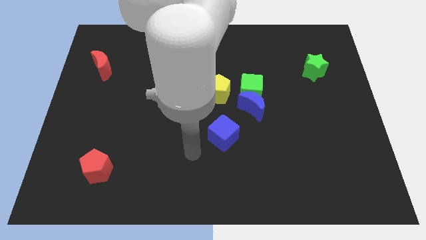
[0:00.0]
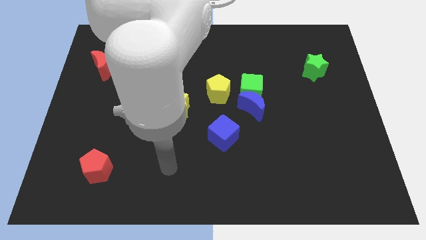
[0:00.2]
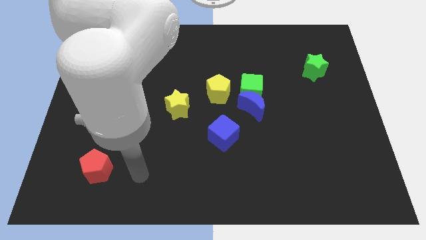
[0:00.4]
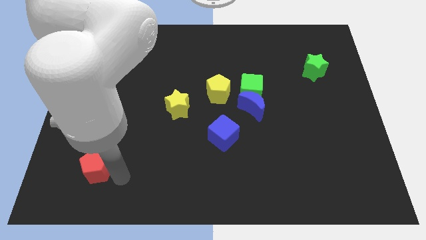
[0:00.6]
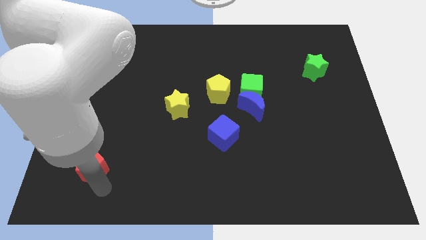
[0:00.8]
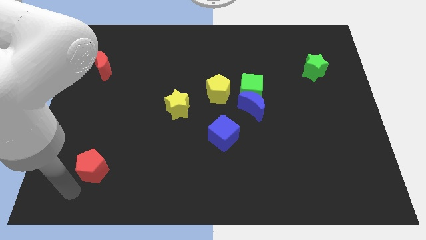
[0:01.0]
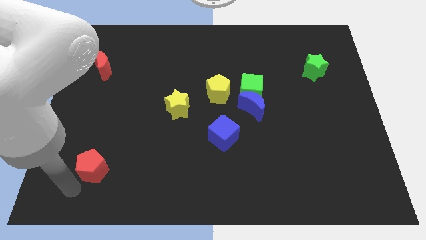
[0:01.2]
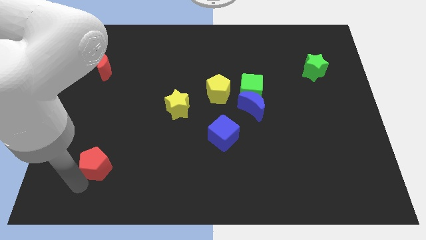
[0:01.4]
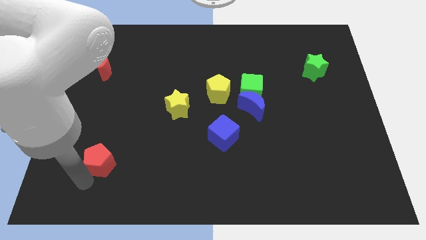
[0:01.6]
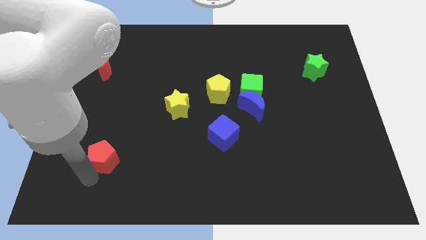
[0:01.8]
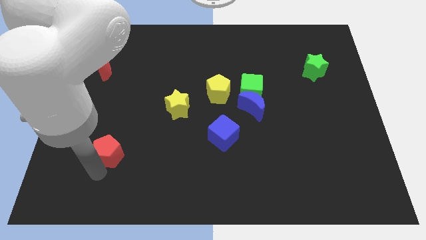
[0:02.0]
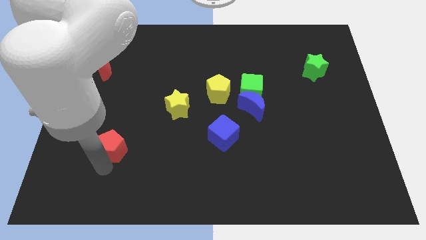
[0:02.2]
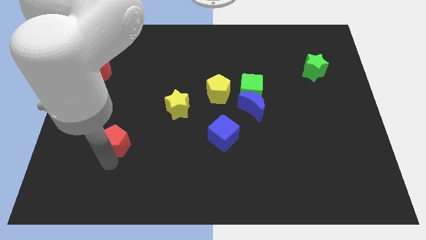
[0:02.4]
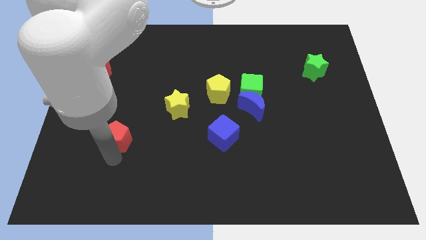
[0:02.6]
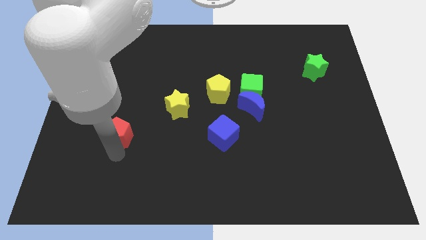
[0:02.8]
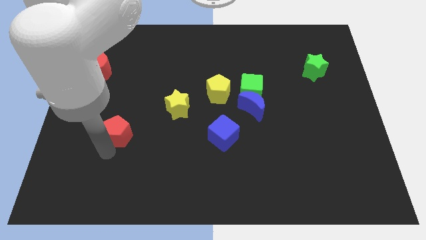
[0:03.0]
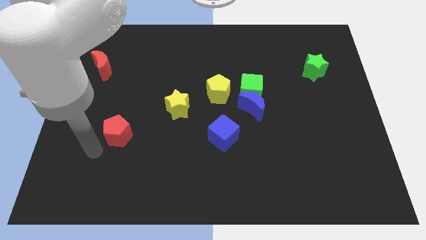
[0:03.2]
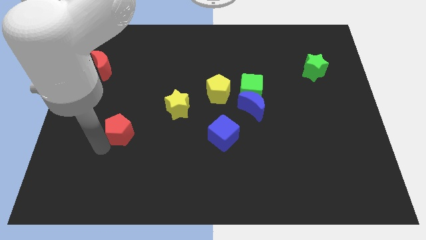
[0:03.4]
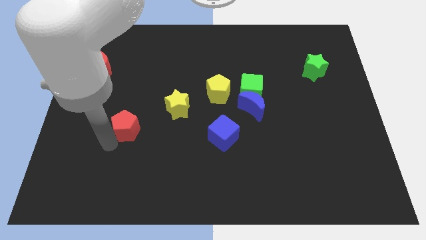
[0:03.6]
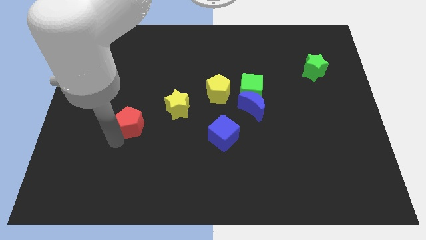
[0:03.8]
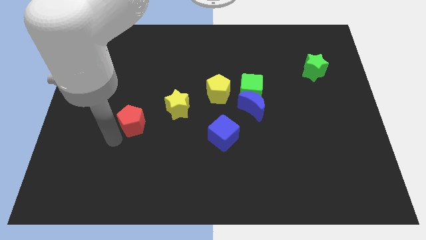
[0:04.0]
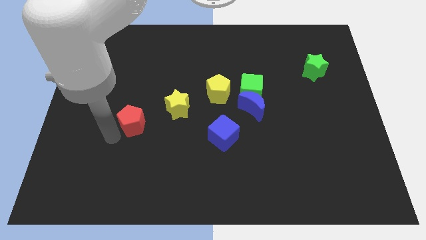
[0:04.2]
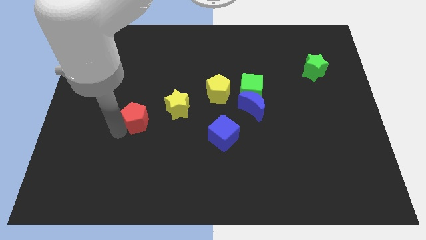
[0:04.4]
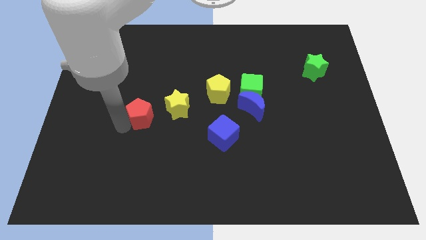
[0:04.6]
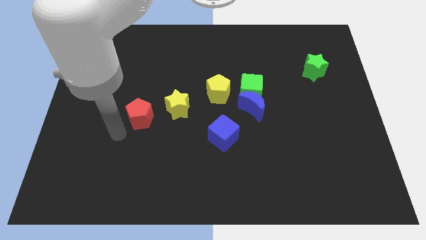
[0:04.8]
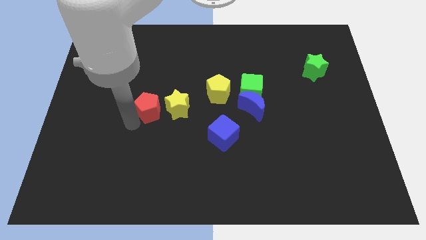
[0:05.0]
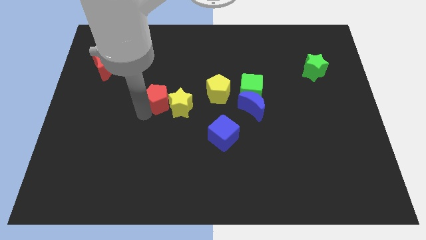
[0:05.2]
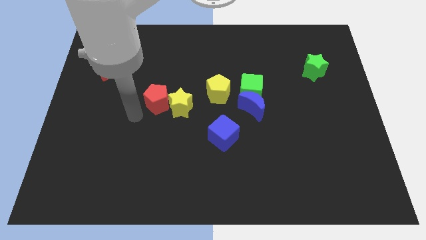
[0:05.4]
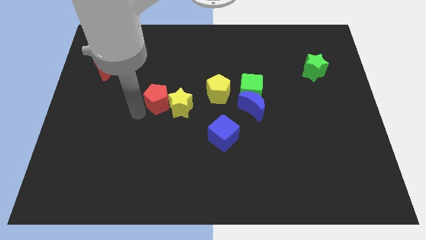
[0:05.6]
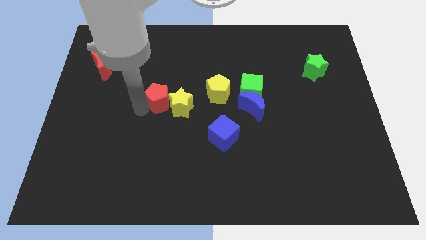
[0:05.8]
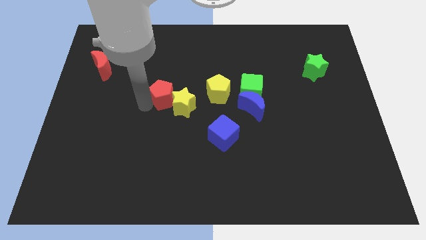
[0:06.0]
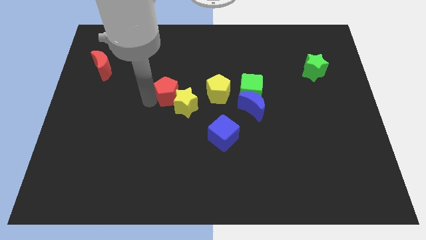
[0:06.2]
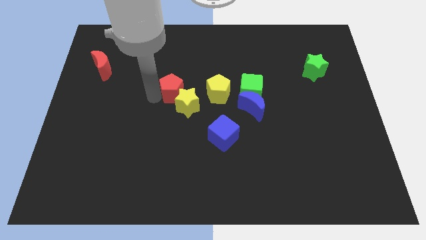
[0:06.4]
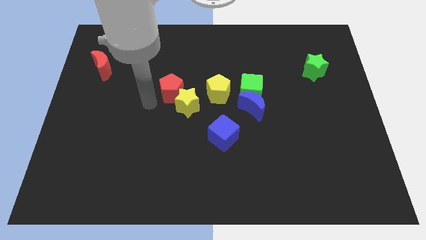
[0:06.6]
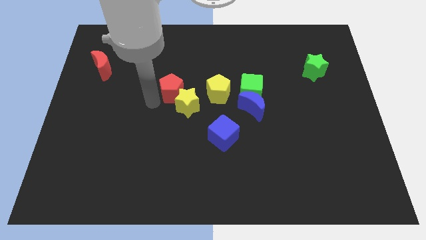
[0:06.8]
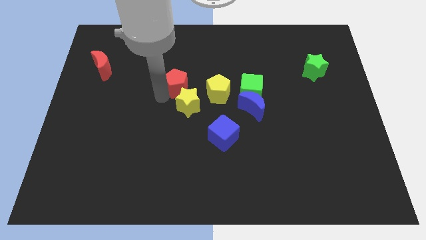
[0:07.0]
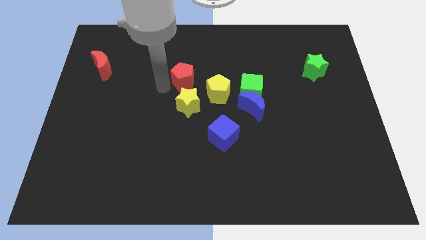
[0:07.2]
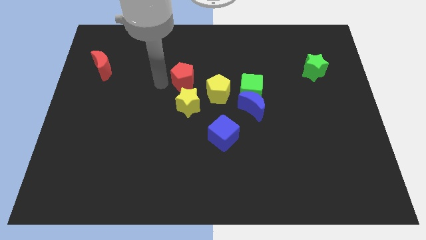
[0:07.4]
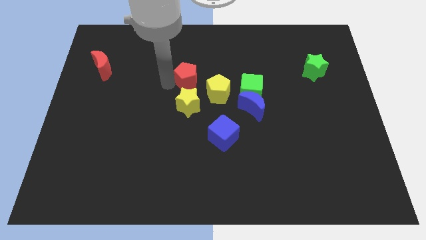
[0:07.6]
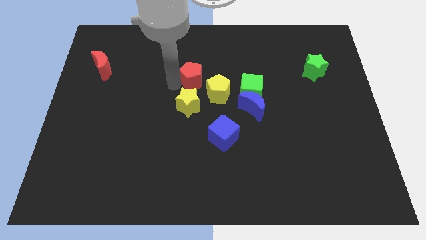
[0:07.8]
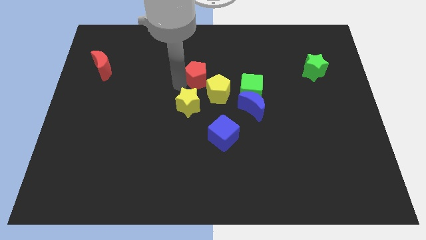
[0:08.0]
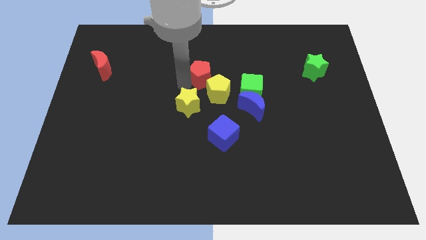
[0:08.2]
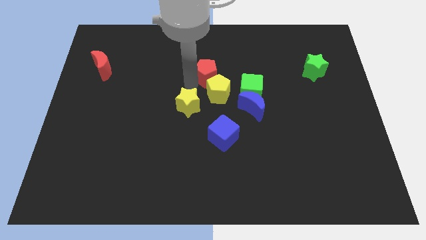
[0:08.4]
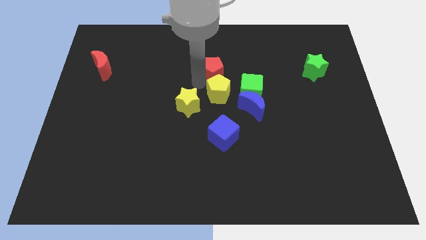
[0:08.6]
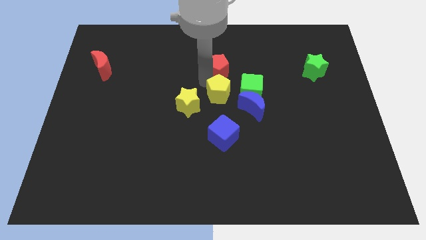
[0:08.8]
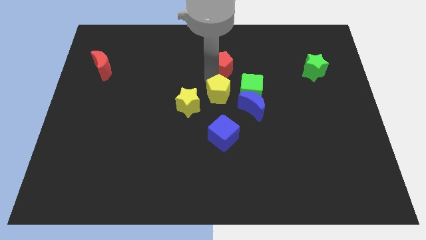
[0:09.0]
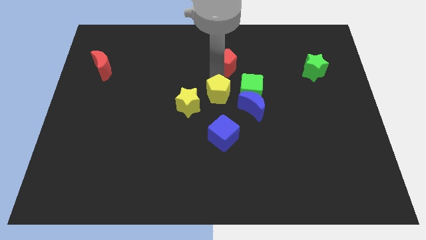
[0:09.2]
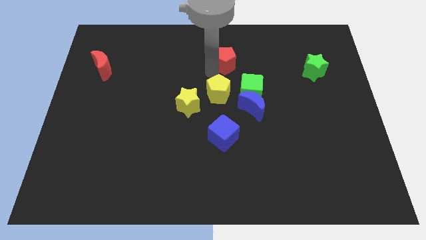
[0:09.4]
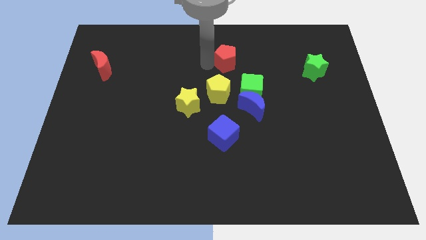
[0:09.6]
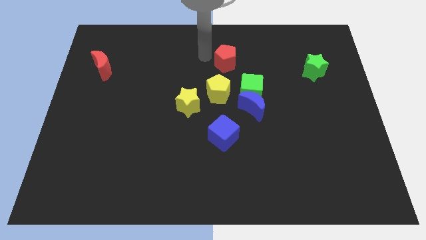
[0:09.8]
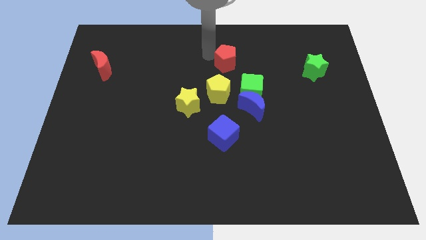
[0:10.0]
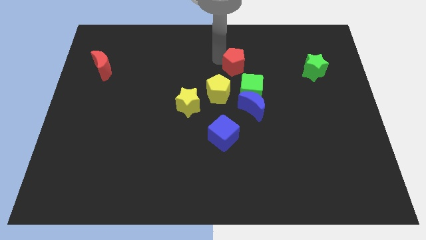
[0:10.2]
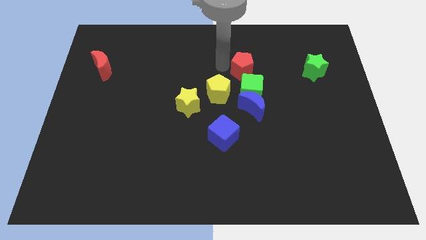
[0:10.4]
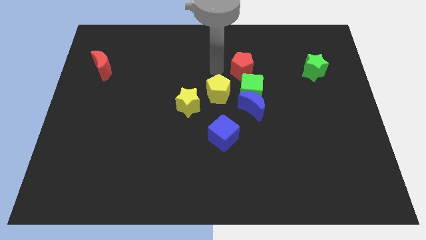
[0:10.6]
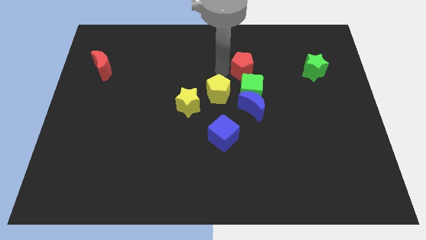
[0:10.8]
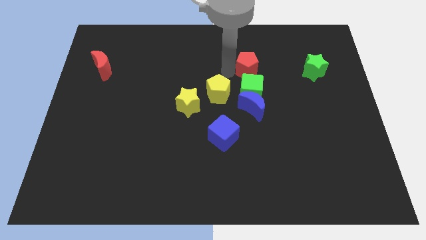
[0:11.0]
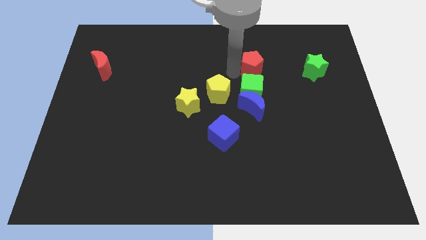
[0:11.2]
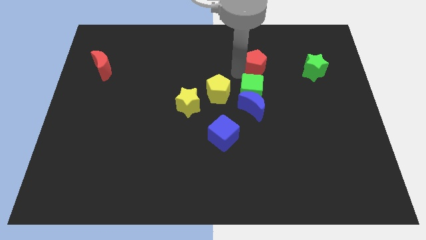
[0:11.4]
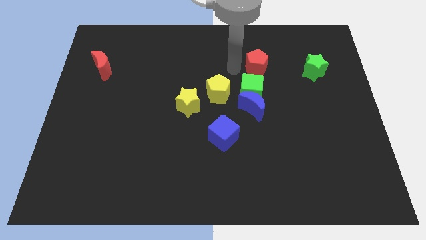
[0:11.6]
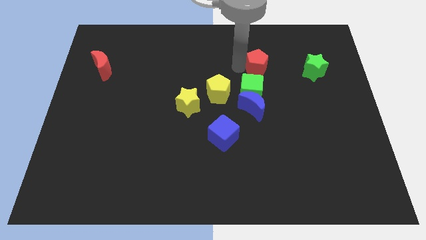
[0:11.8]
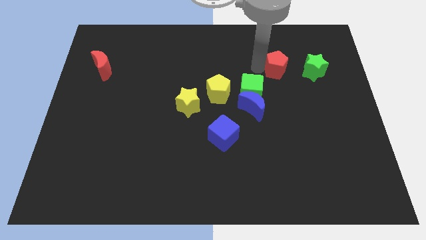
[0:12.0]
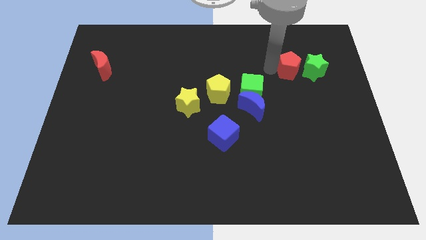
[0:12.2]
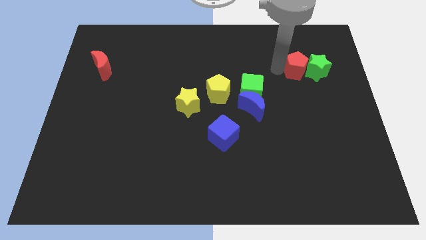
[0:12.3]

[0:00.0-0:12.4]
push the red pentagon next to the green star
